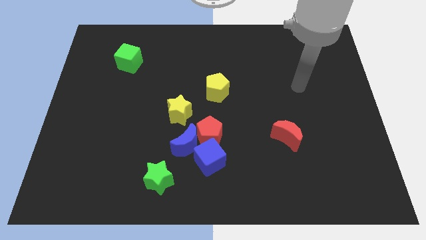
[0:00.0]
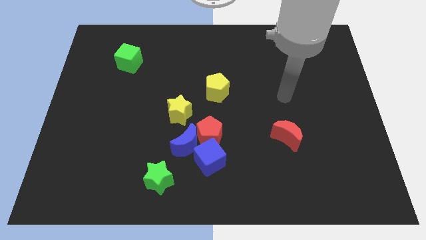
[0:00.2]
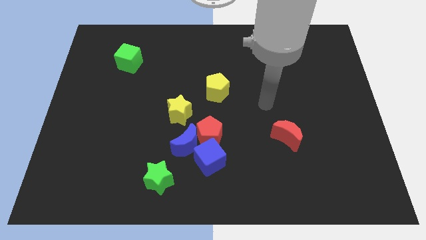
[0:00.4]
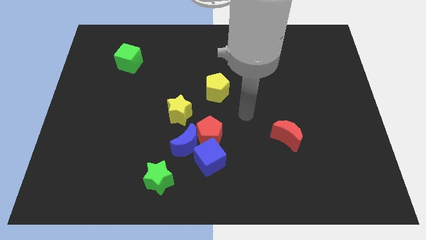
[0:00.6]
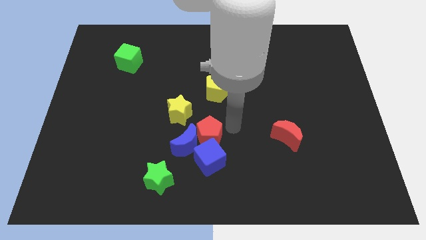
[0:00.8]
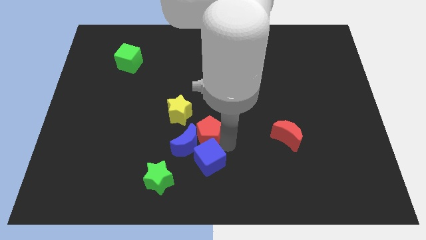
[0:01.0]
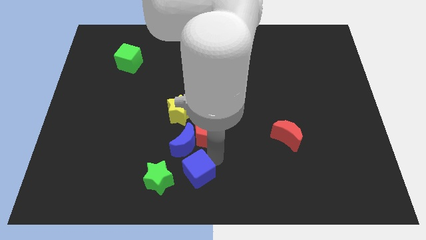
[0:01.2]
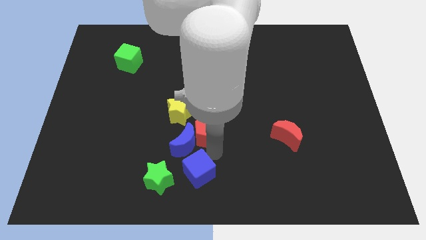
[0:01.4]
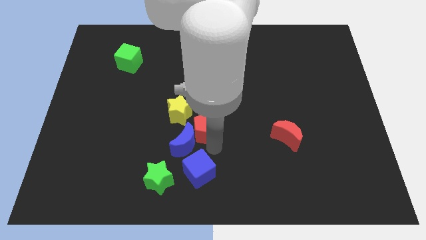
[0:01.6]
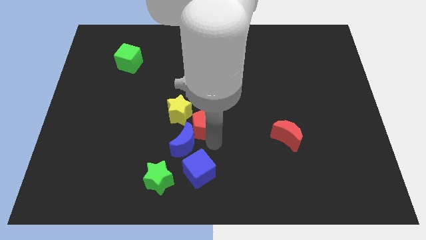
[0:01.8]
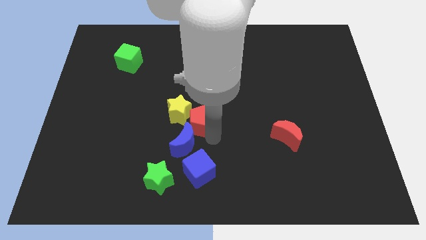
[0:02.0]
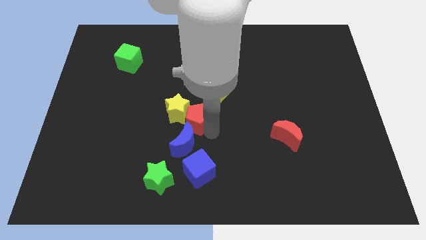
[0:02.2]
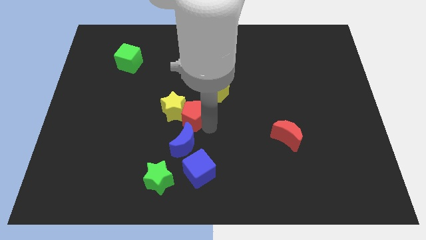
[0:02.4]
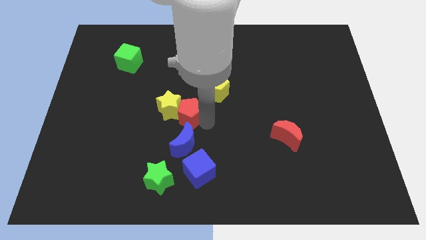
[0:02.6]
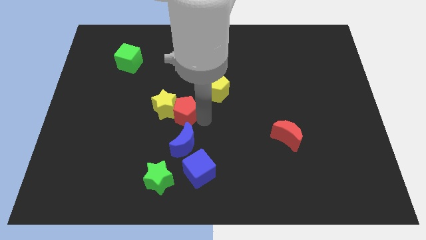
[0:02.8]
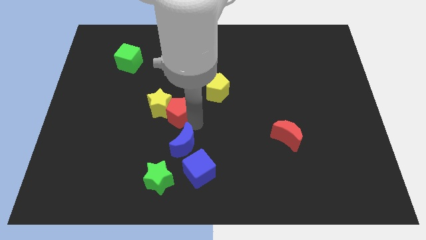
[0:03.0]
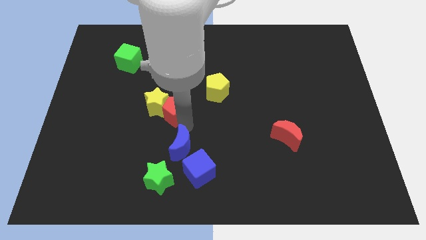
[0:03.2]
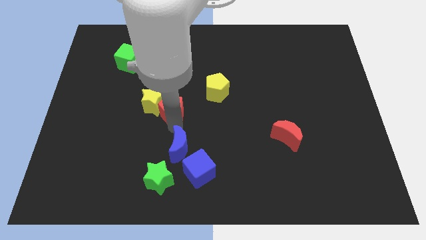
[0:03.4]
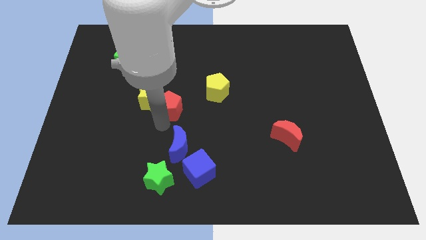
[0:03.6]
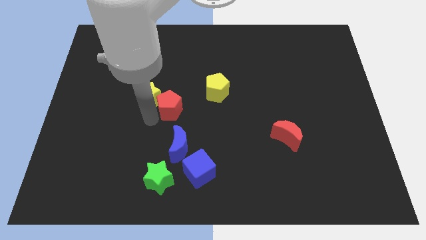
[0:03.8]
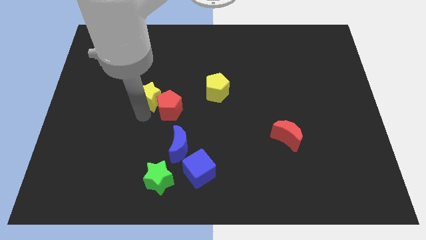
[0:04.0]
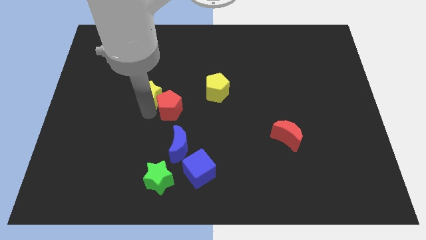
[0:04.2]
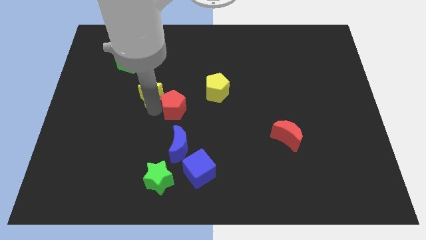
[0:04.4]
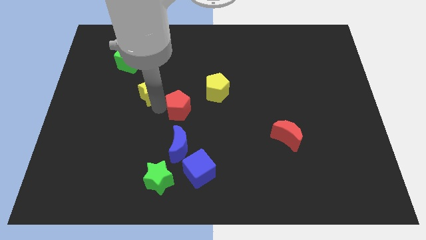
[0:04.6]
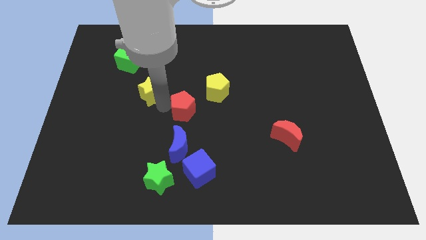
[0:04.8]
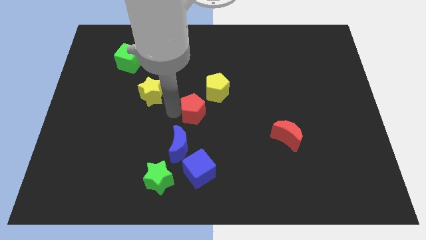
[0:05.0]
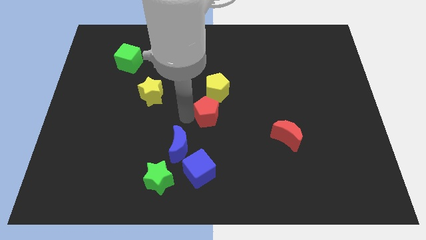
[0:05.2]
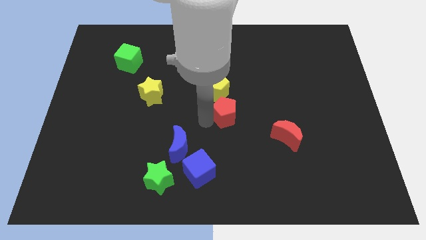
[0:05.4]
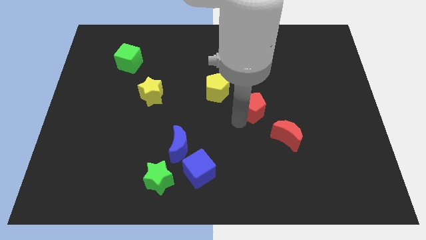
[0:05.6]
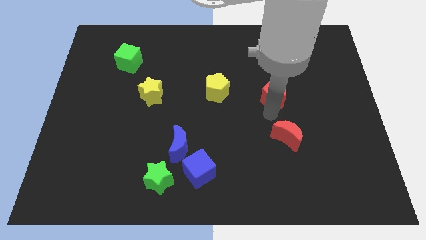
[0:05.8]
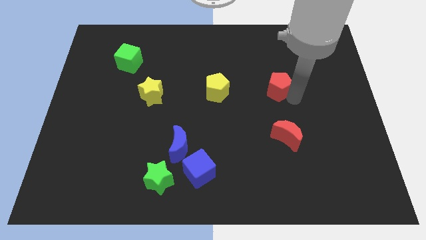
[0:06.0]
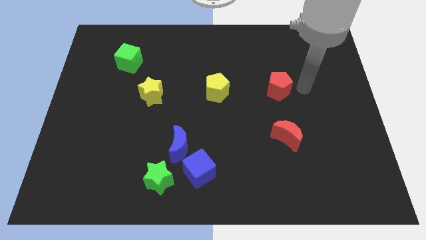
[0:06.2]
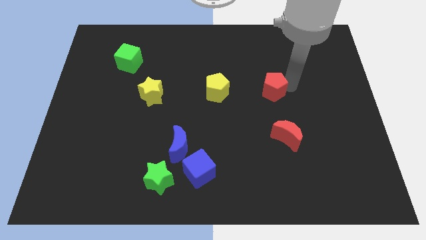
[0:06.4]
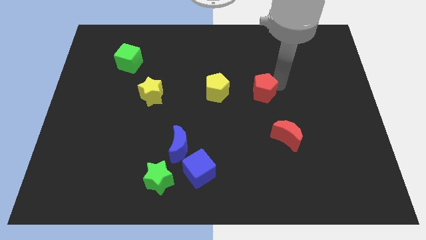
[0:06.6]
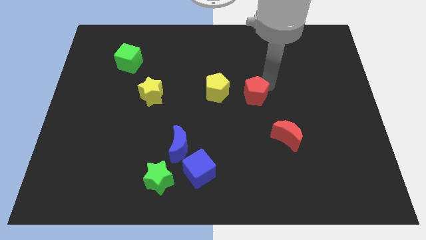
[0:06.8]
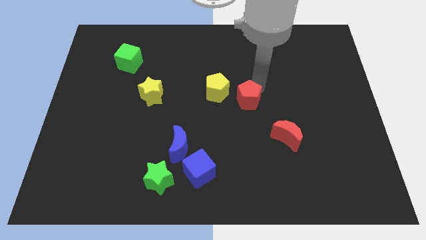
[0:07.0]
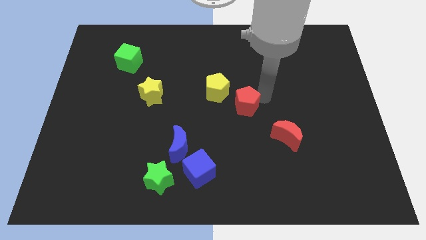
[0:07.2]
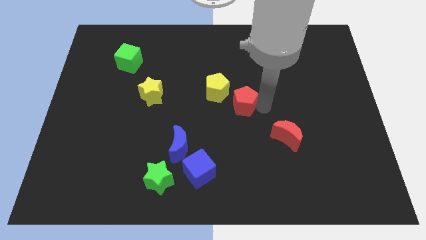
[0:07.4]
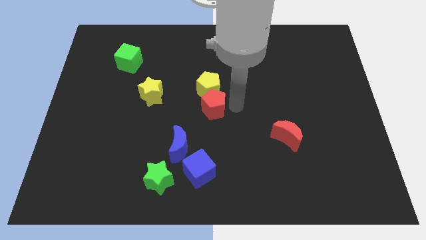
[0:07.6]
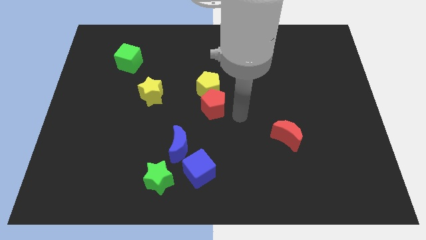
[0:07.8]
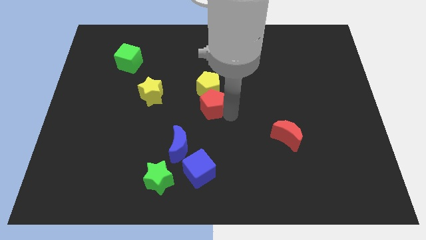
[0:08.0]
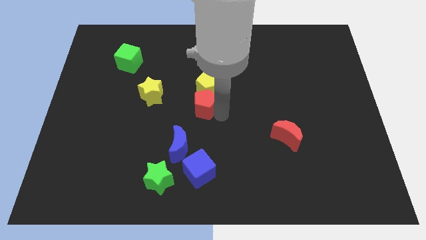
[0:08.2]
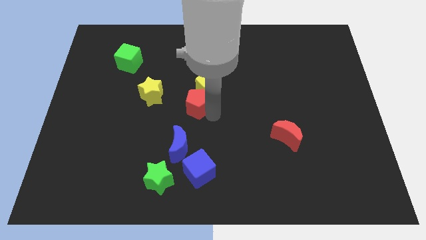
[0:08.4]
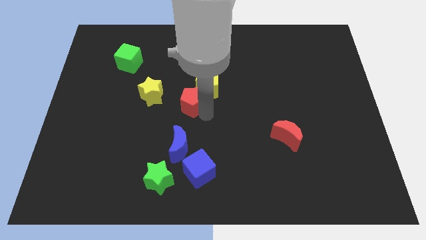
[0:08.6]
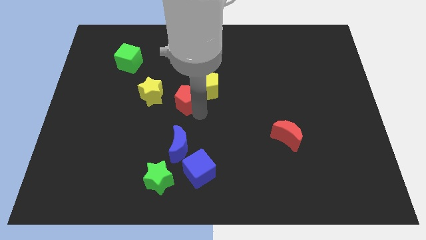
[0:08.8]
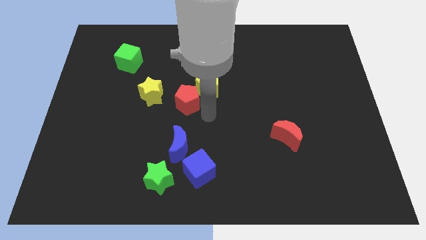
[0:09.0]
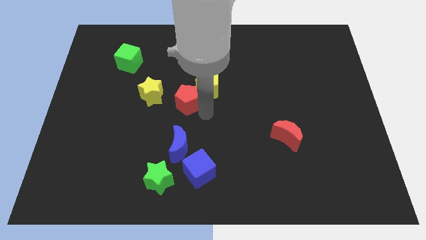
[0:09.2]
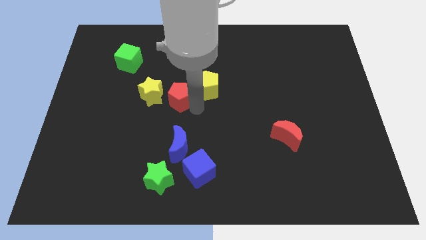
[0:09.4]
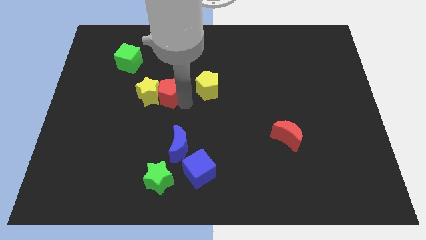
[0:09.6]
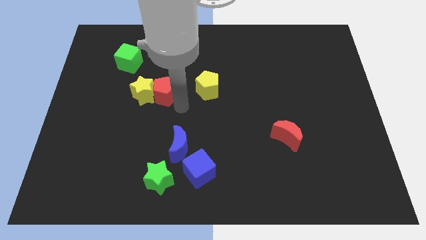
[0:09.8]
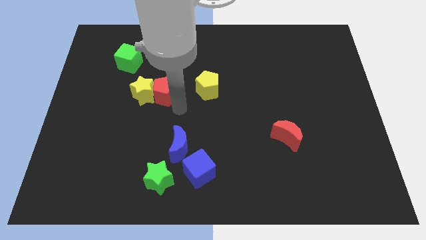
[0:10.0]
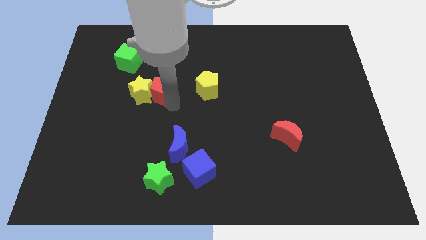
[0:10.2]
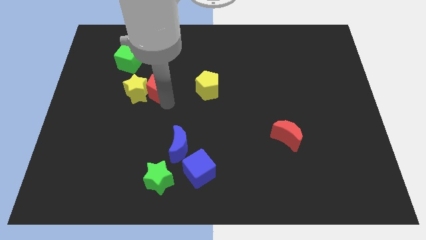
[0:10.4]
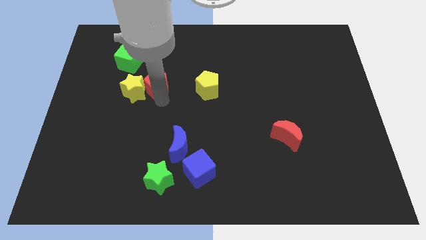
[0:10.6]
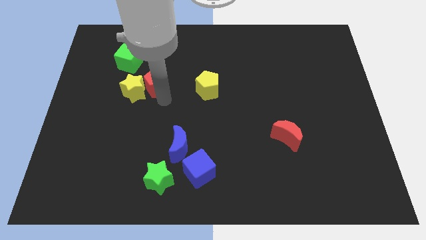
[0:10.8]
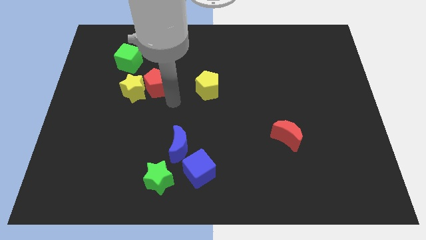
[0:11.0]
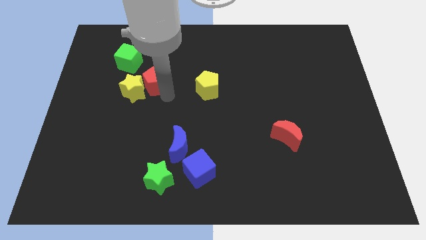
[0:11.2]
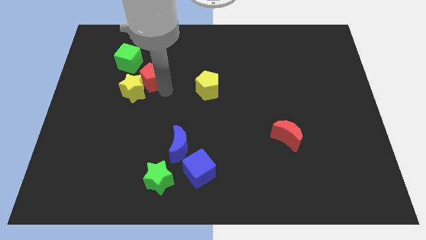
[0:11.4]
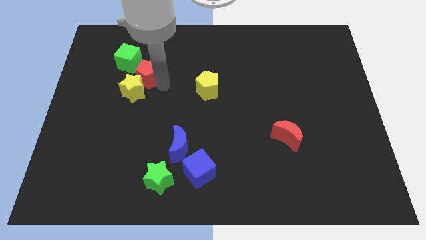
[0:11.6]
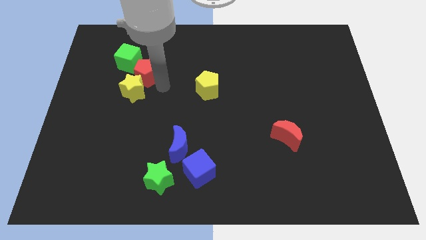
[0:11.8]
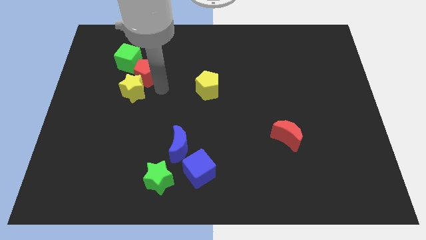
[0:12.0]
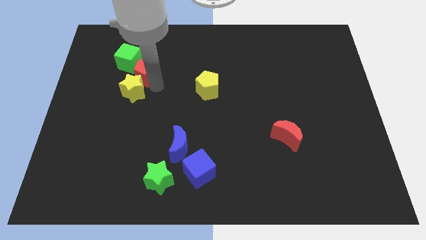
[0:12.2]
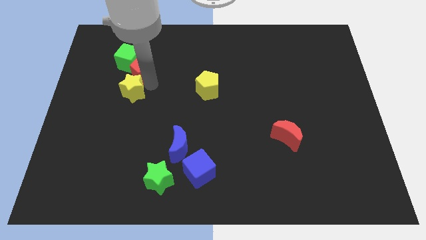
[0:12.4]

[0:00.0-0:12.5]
put the red pentagon next to the green cube

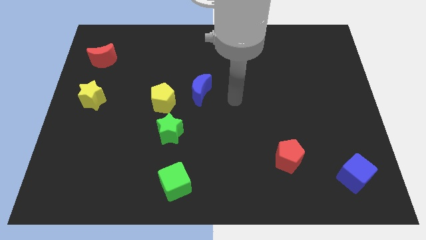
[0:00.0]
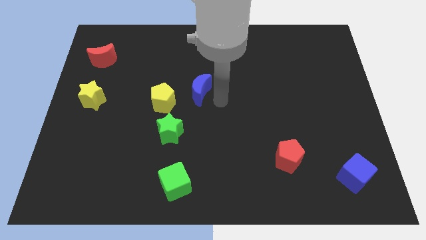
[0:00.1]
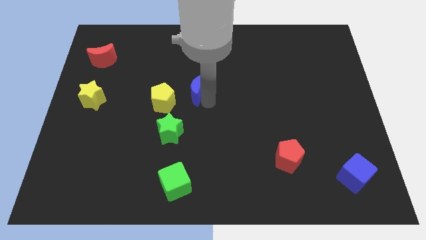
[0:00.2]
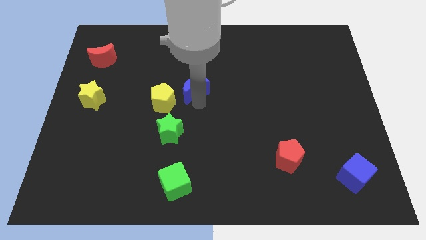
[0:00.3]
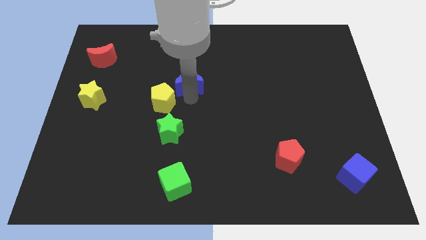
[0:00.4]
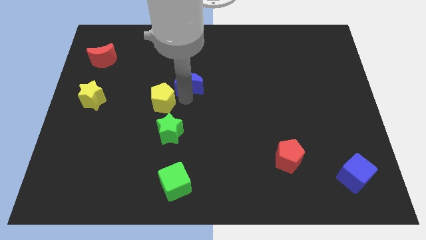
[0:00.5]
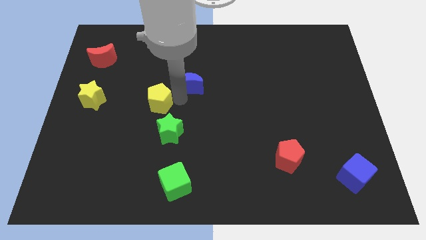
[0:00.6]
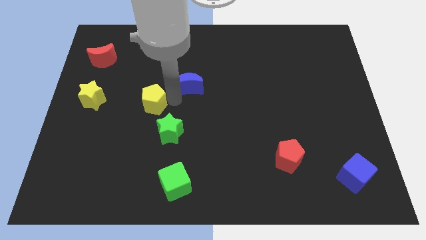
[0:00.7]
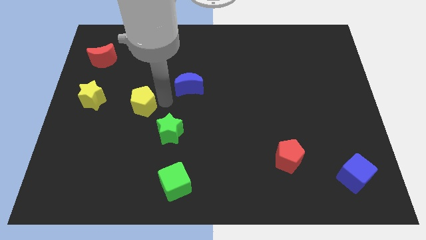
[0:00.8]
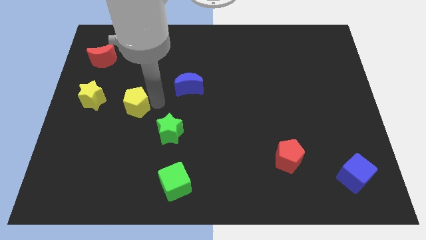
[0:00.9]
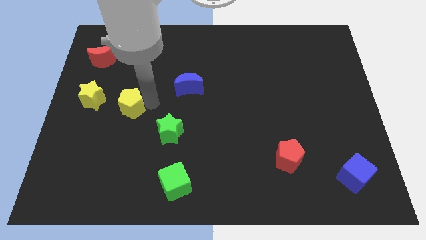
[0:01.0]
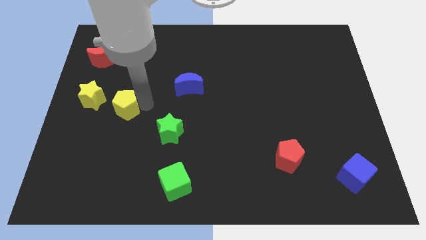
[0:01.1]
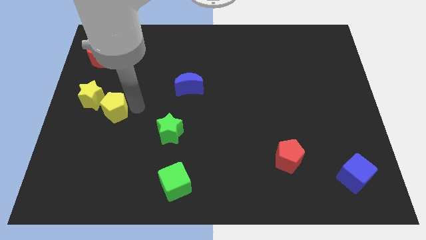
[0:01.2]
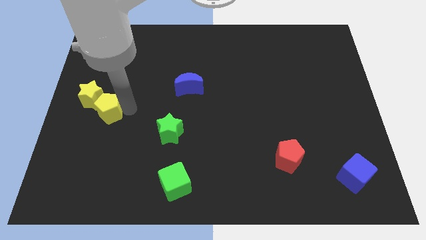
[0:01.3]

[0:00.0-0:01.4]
push the yellow pentagon to the yellow star
